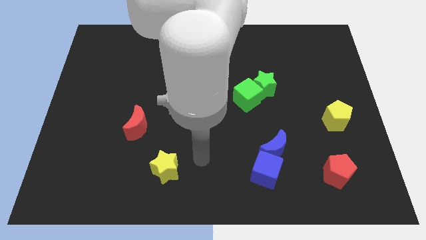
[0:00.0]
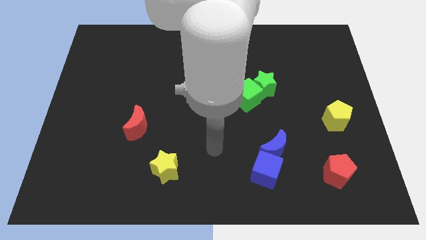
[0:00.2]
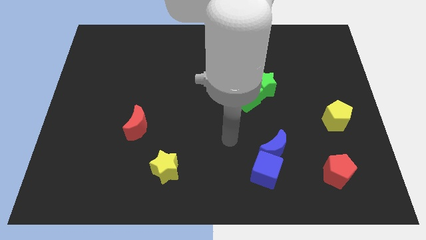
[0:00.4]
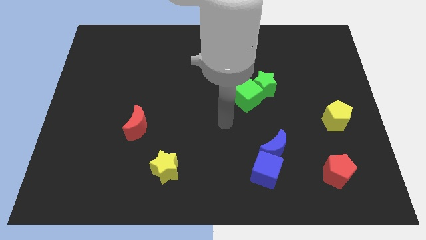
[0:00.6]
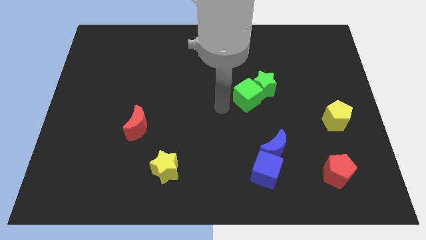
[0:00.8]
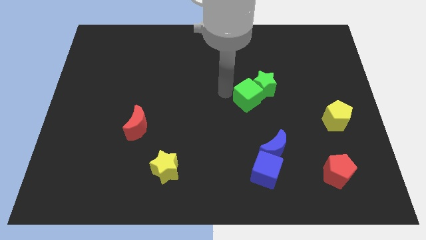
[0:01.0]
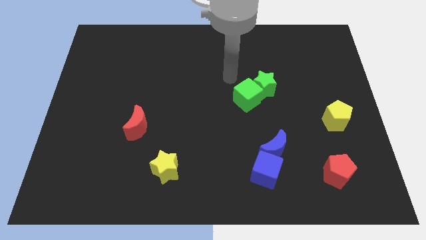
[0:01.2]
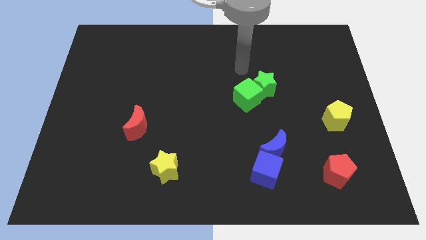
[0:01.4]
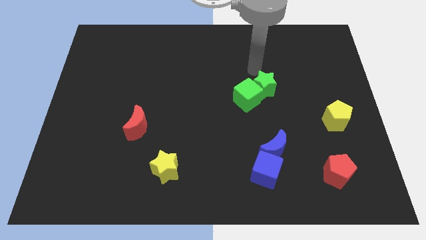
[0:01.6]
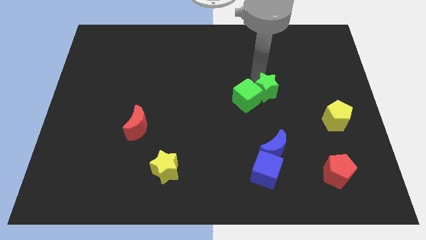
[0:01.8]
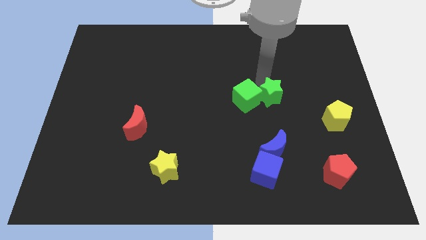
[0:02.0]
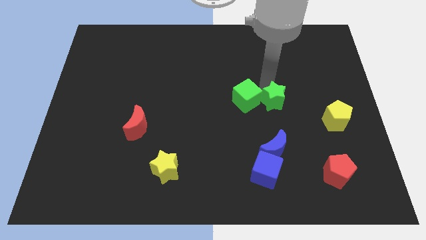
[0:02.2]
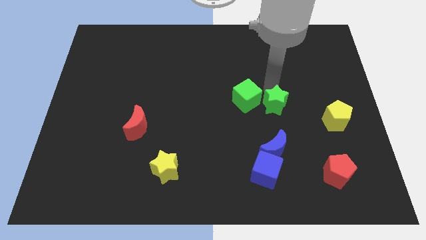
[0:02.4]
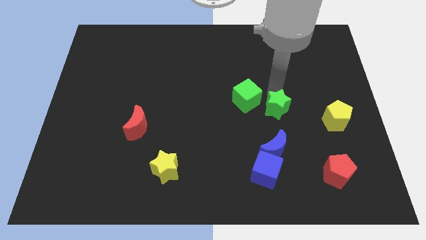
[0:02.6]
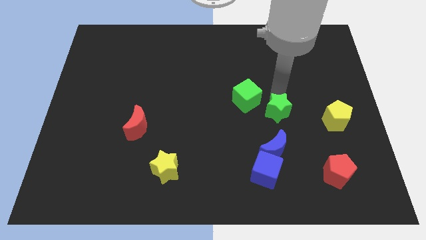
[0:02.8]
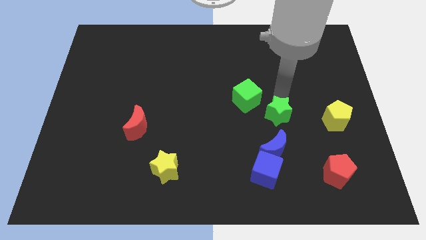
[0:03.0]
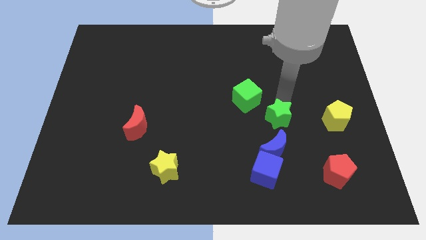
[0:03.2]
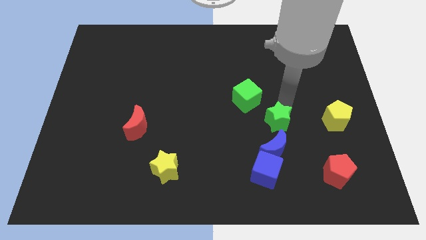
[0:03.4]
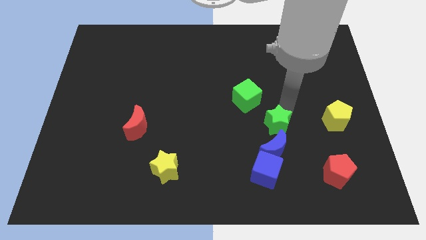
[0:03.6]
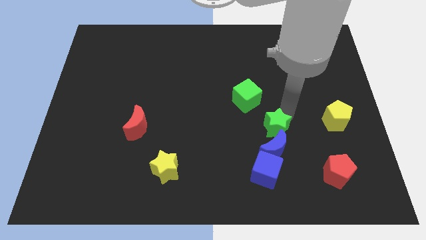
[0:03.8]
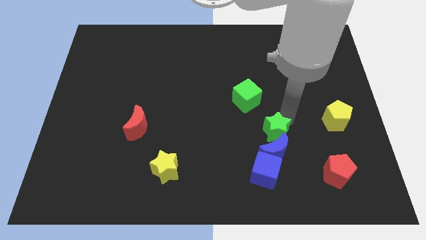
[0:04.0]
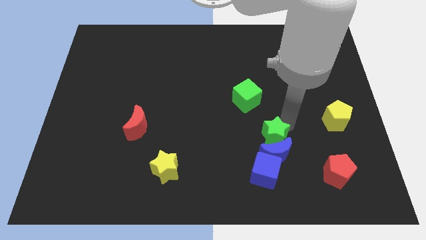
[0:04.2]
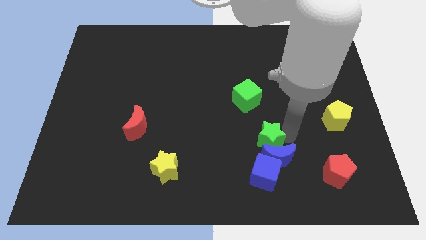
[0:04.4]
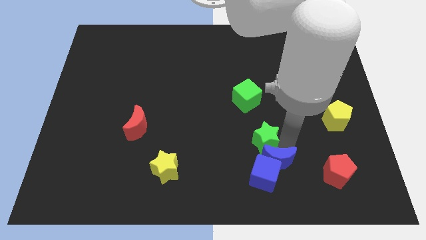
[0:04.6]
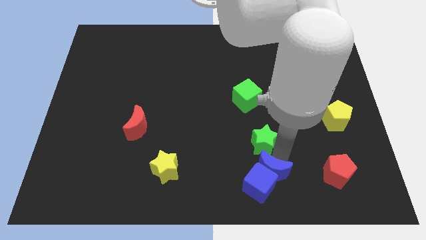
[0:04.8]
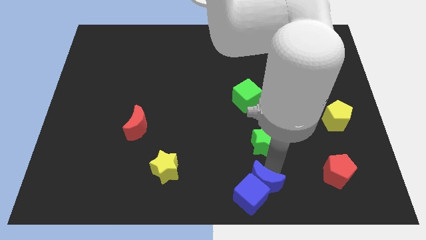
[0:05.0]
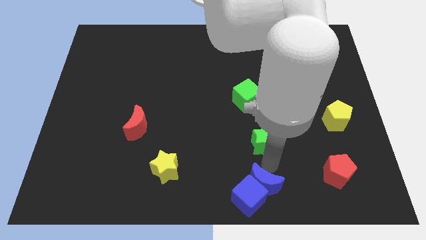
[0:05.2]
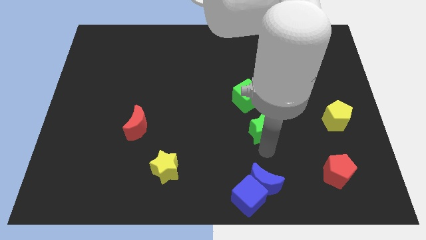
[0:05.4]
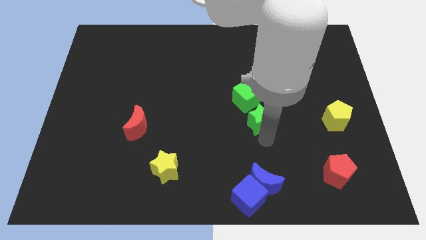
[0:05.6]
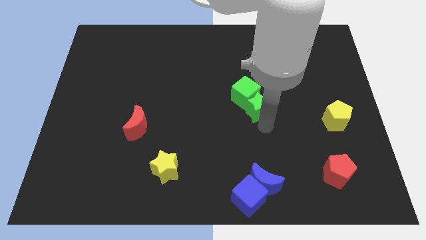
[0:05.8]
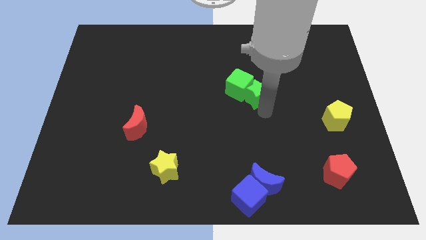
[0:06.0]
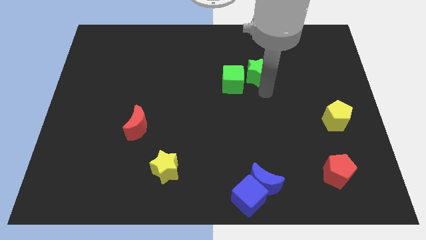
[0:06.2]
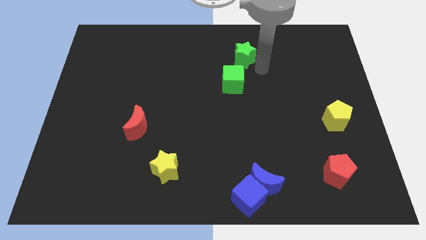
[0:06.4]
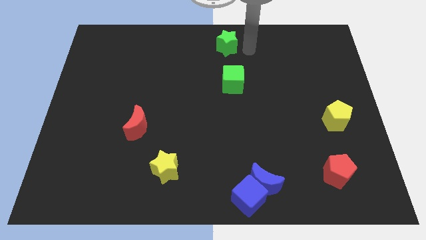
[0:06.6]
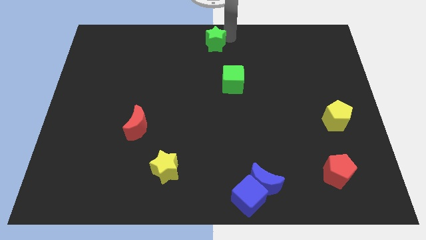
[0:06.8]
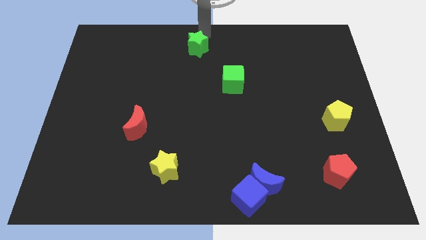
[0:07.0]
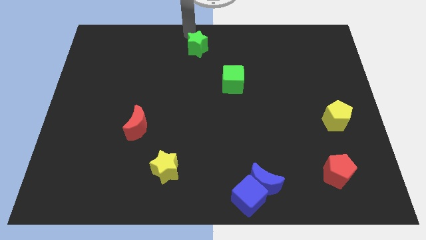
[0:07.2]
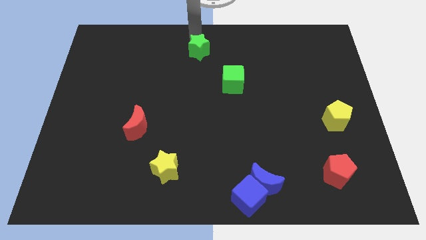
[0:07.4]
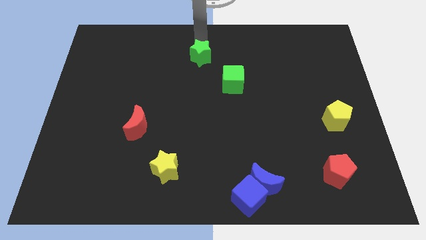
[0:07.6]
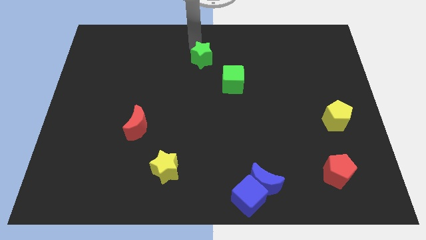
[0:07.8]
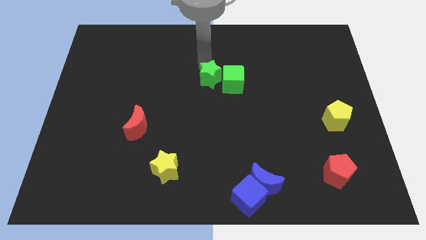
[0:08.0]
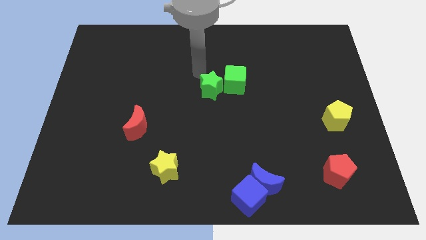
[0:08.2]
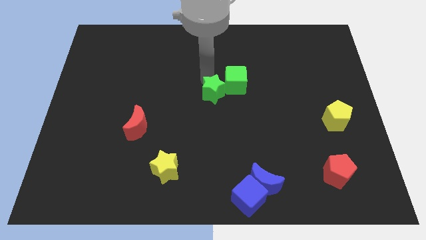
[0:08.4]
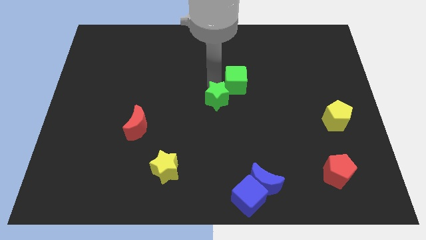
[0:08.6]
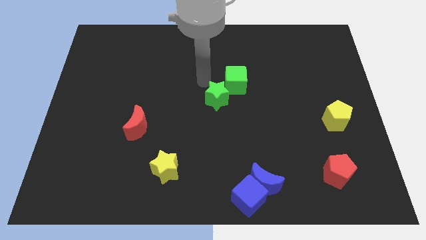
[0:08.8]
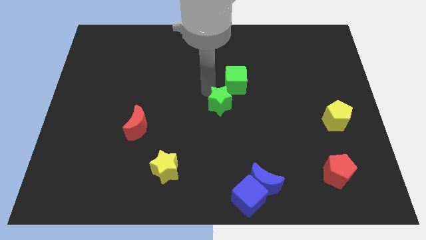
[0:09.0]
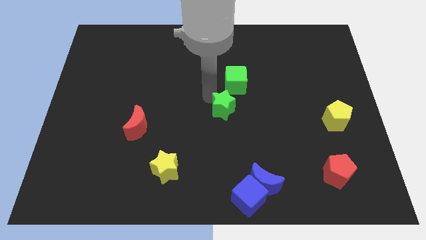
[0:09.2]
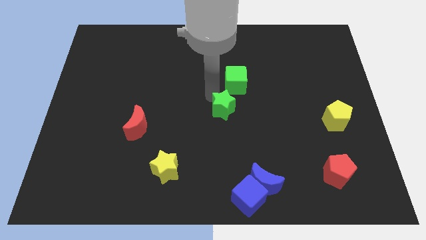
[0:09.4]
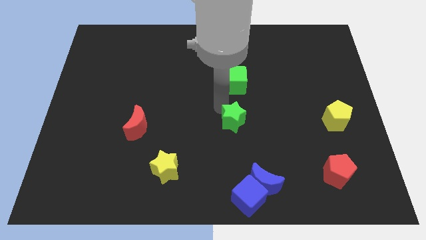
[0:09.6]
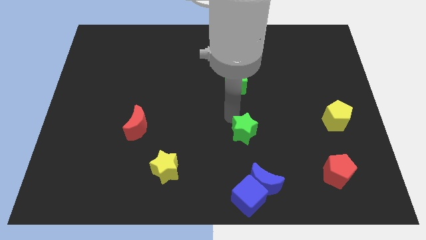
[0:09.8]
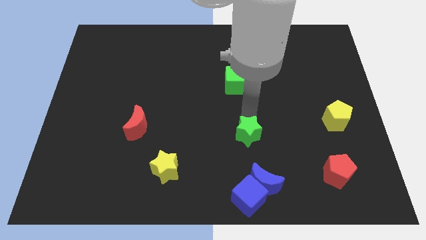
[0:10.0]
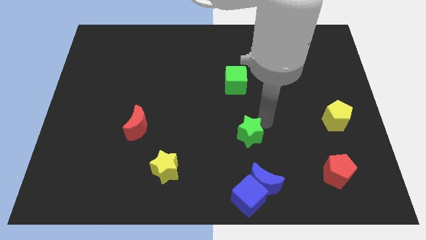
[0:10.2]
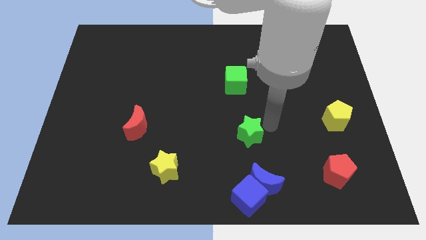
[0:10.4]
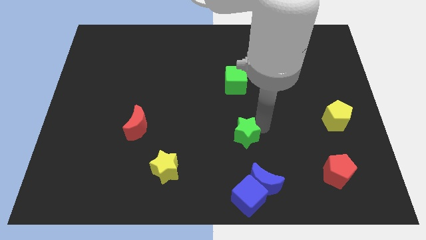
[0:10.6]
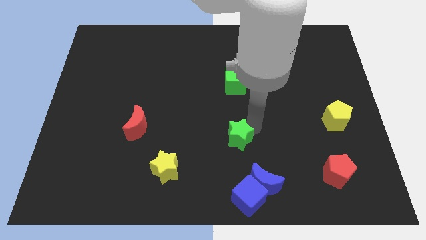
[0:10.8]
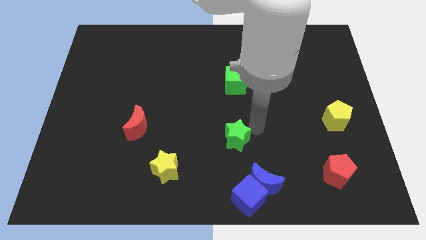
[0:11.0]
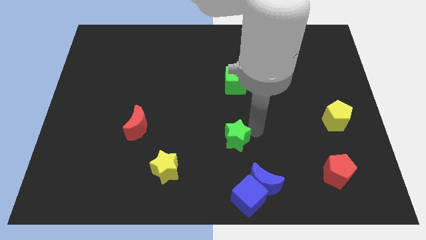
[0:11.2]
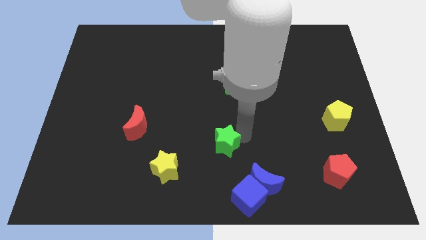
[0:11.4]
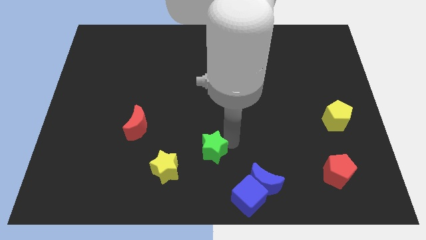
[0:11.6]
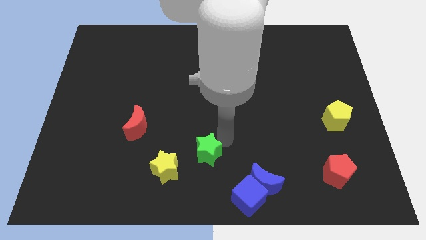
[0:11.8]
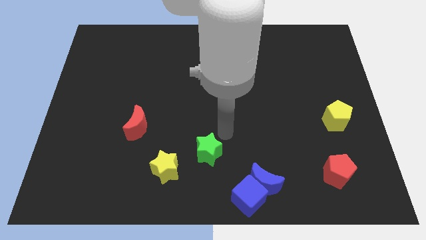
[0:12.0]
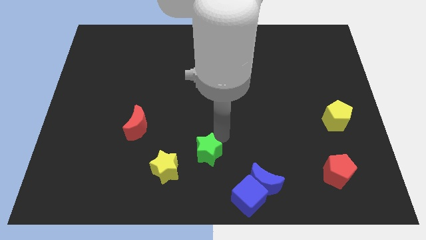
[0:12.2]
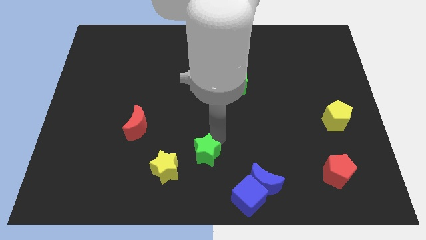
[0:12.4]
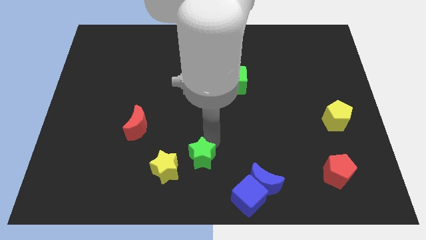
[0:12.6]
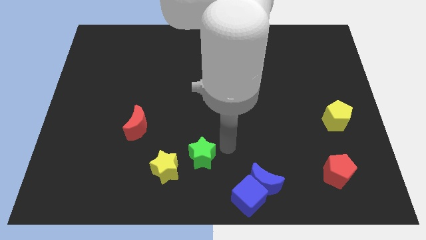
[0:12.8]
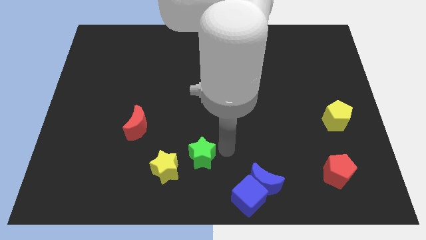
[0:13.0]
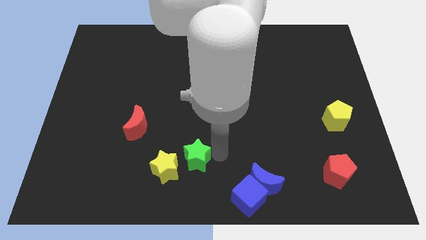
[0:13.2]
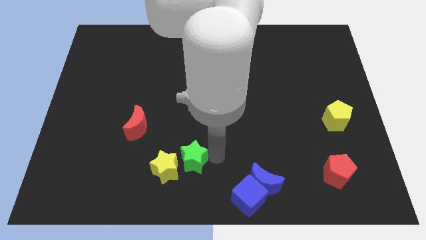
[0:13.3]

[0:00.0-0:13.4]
move the green star next to the yellow star

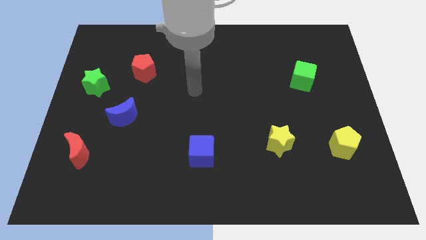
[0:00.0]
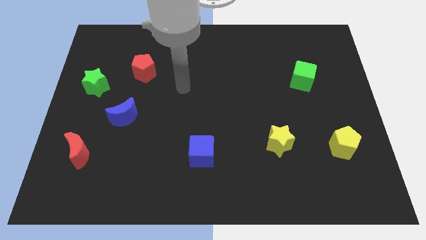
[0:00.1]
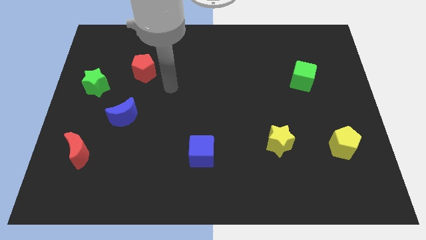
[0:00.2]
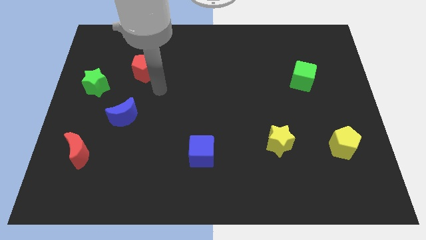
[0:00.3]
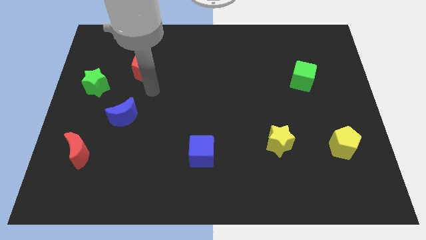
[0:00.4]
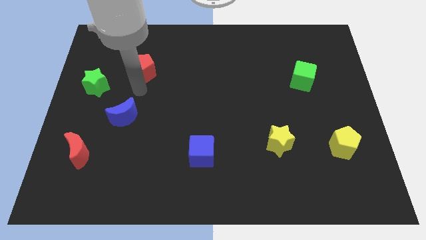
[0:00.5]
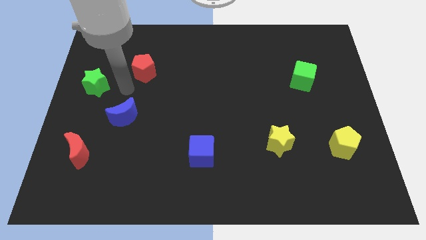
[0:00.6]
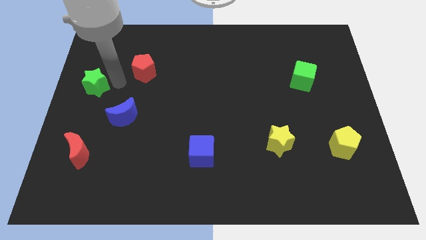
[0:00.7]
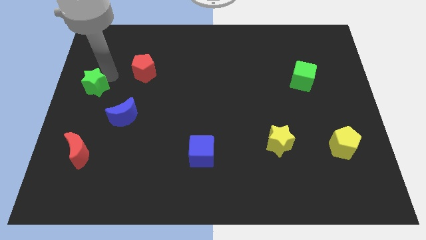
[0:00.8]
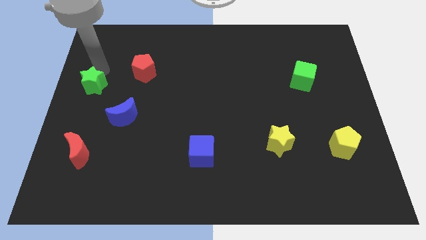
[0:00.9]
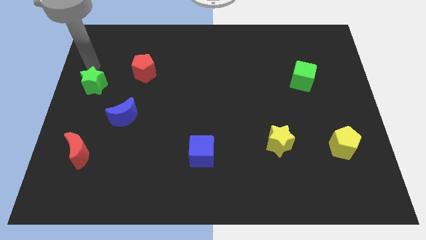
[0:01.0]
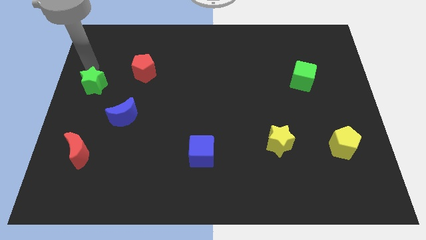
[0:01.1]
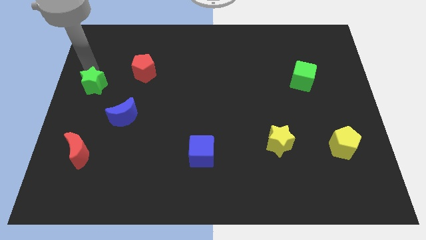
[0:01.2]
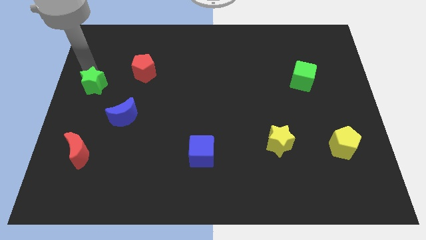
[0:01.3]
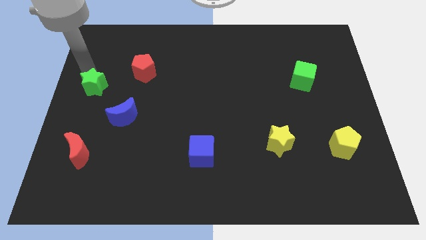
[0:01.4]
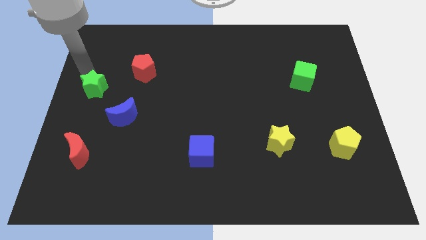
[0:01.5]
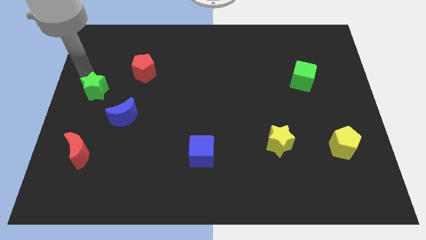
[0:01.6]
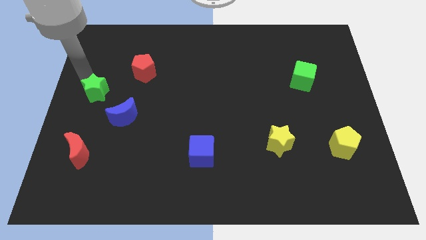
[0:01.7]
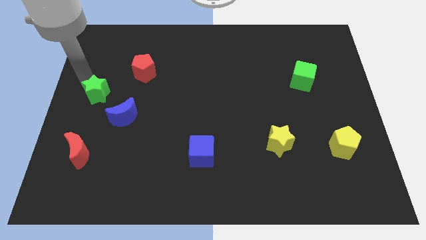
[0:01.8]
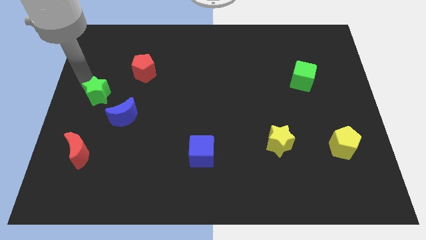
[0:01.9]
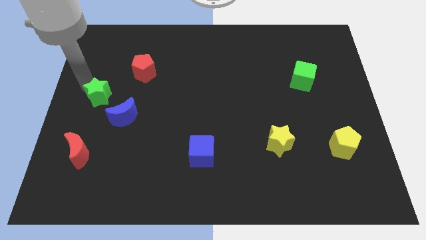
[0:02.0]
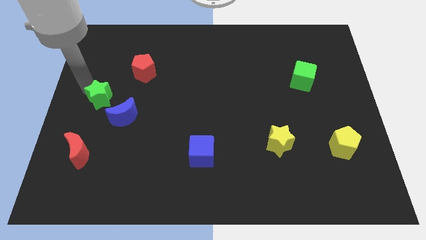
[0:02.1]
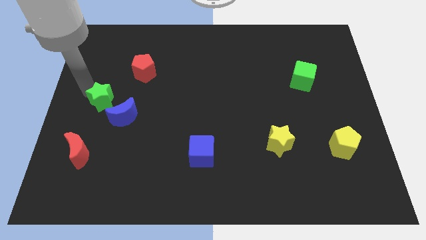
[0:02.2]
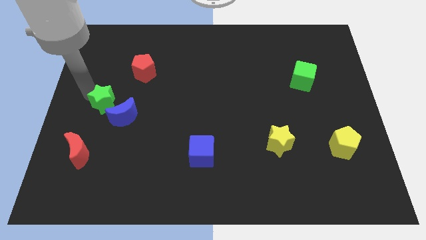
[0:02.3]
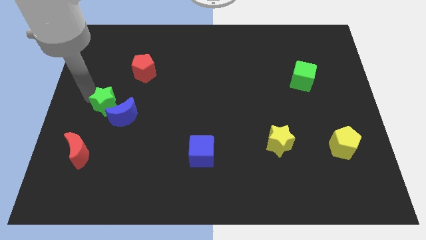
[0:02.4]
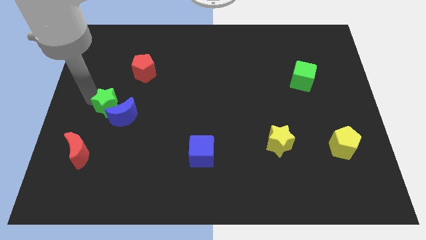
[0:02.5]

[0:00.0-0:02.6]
slide the green star next to the blue moon
